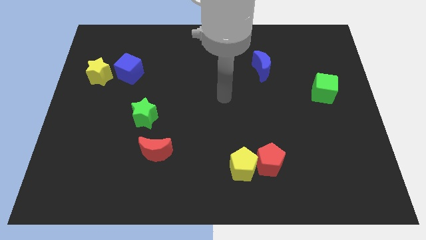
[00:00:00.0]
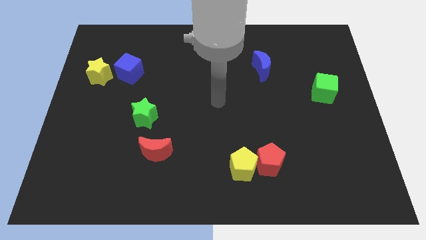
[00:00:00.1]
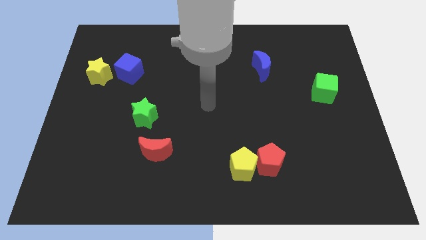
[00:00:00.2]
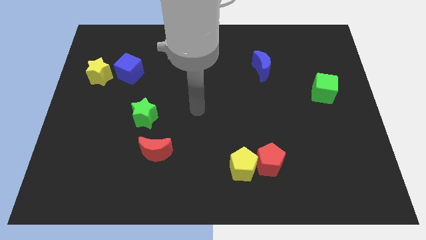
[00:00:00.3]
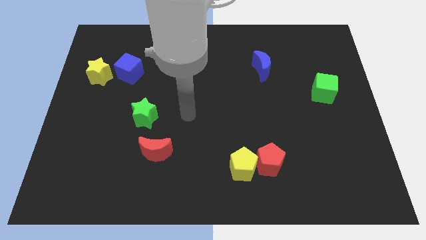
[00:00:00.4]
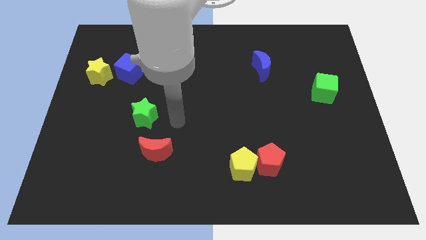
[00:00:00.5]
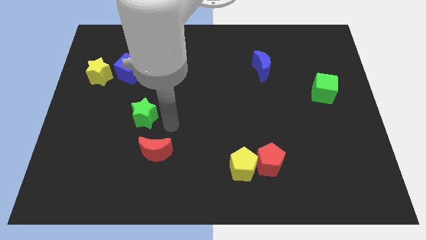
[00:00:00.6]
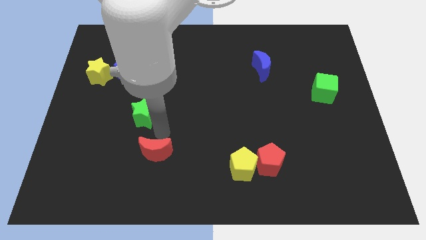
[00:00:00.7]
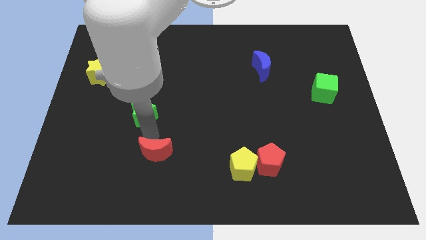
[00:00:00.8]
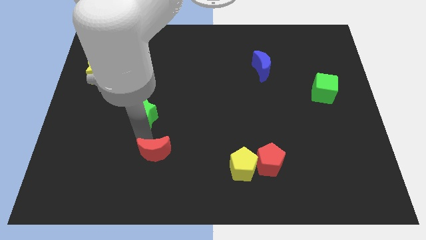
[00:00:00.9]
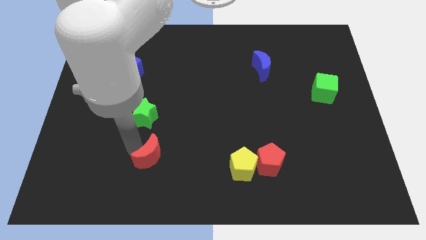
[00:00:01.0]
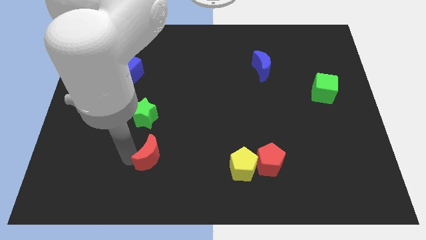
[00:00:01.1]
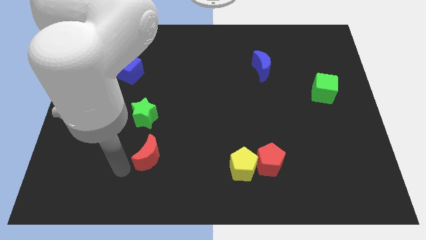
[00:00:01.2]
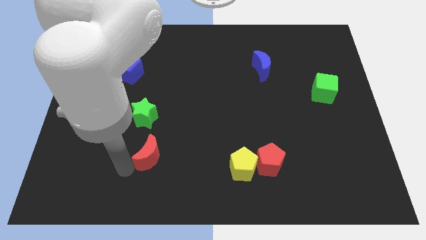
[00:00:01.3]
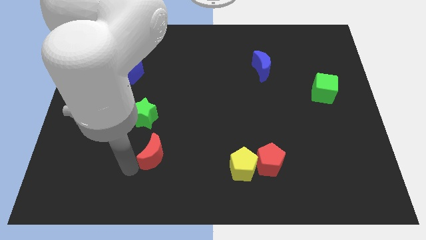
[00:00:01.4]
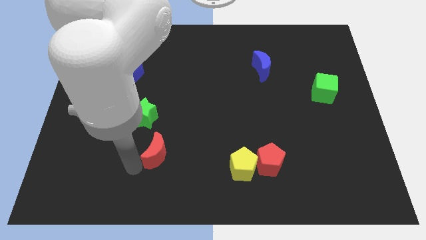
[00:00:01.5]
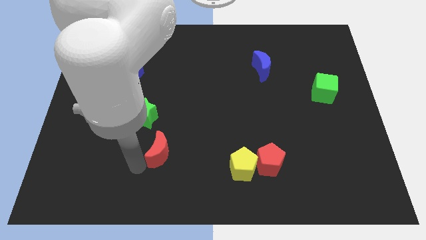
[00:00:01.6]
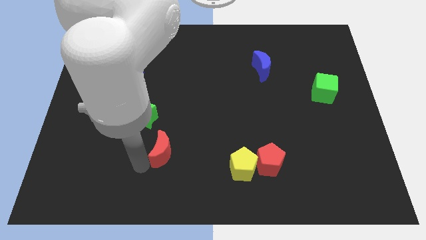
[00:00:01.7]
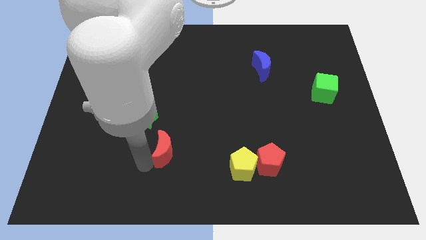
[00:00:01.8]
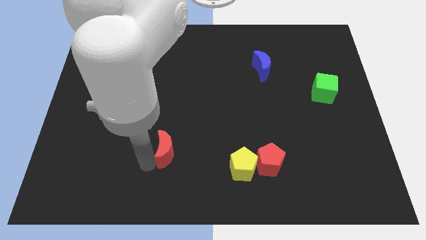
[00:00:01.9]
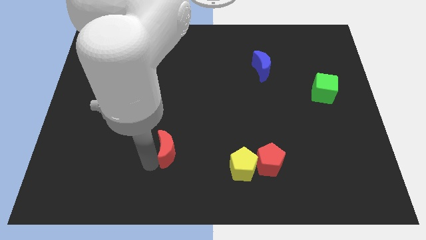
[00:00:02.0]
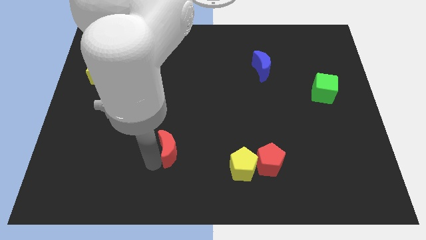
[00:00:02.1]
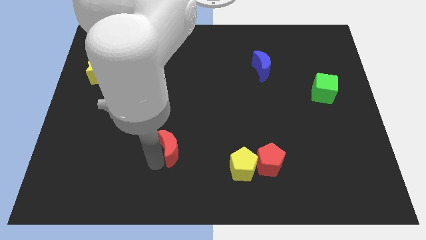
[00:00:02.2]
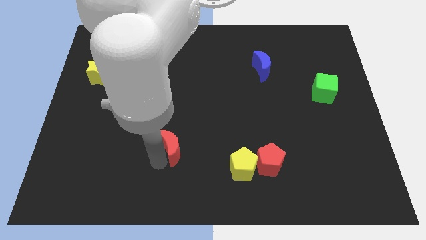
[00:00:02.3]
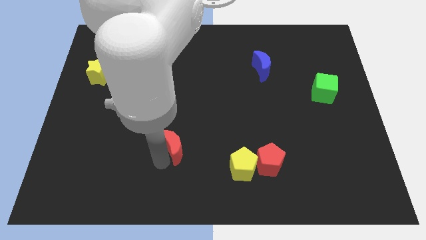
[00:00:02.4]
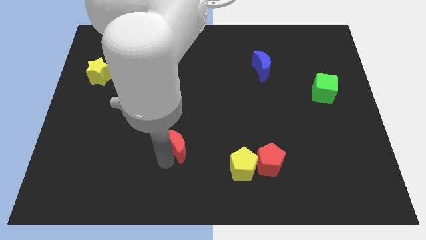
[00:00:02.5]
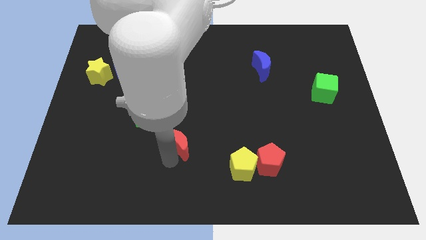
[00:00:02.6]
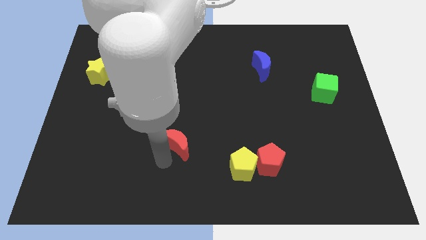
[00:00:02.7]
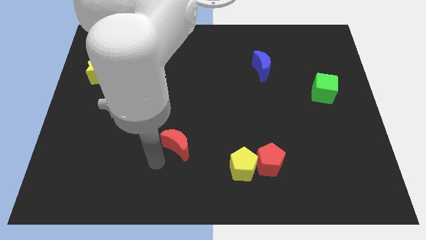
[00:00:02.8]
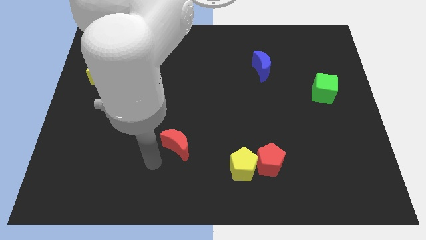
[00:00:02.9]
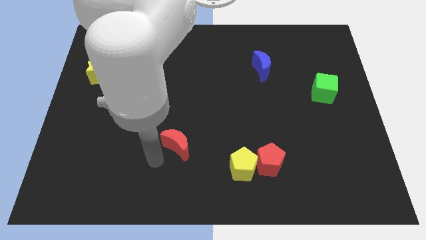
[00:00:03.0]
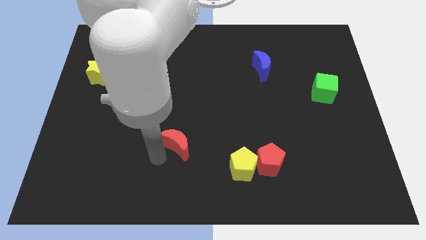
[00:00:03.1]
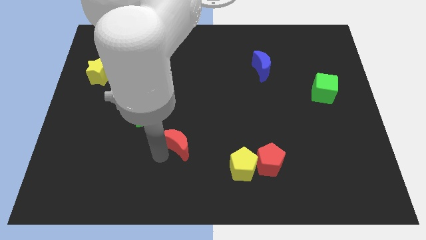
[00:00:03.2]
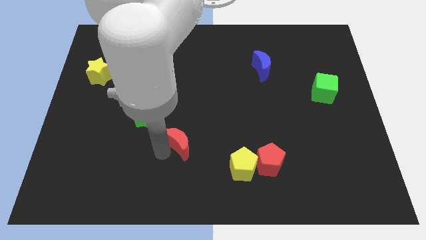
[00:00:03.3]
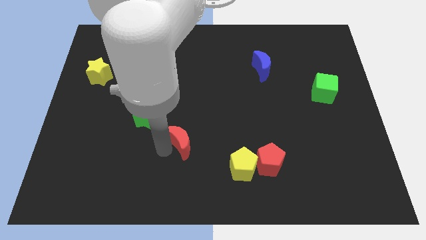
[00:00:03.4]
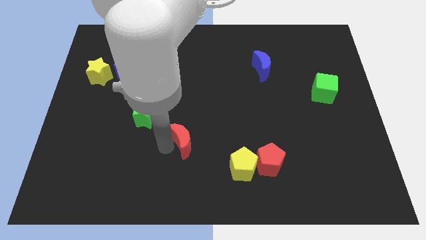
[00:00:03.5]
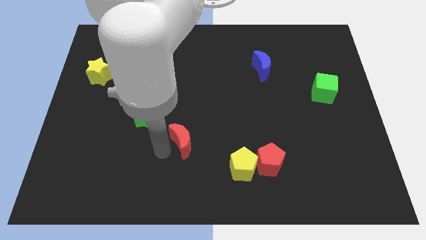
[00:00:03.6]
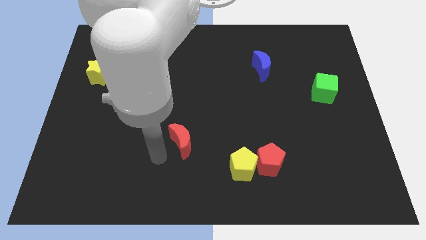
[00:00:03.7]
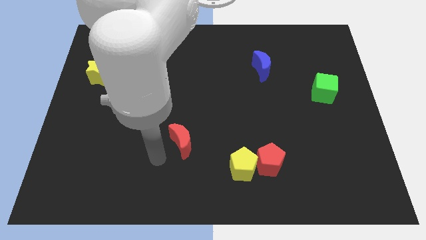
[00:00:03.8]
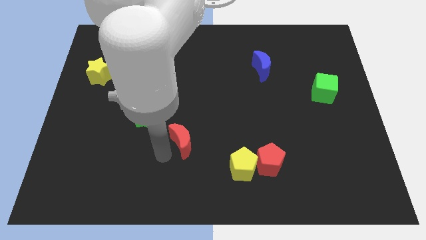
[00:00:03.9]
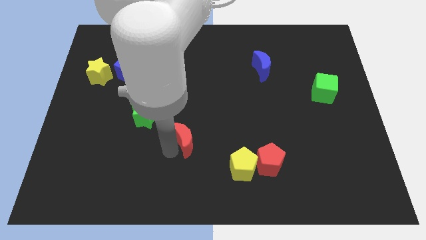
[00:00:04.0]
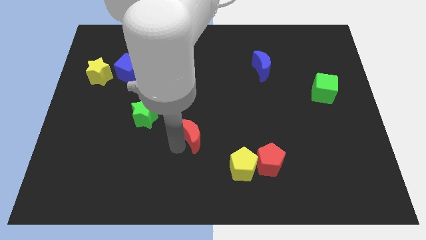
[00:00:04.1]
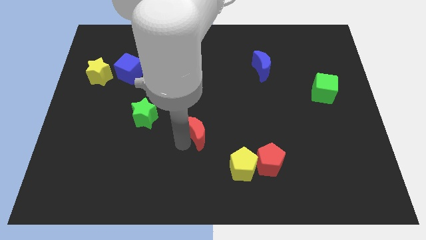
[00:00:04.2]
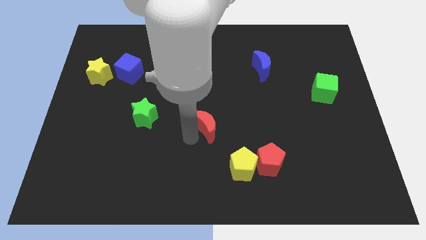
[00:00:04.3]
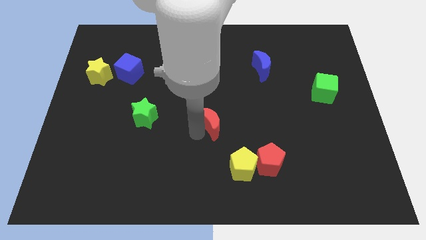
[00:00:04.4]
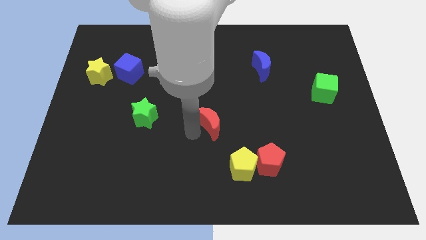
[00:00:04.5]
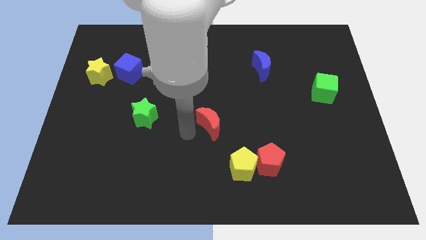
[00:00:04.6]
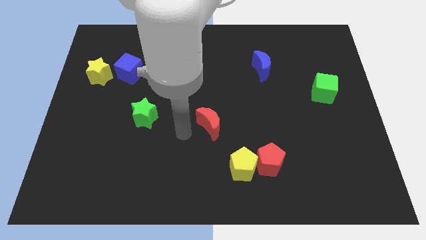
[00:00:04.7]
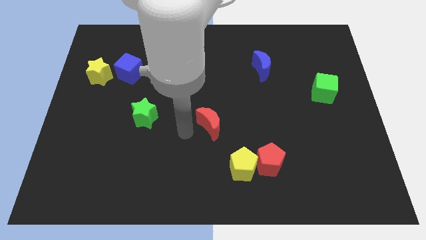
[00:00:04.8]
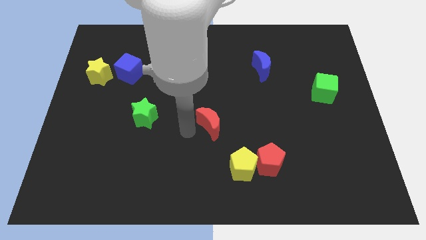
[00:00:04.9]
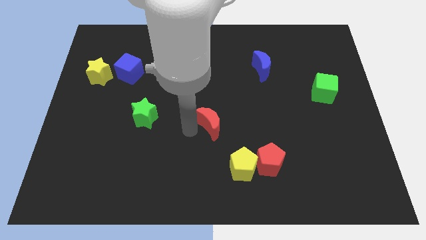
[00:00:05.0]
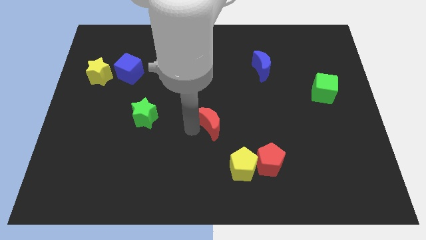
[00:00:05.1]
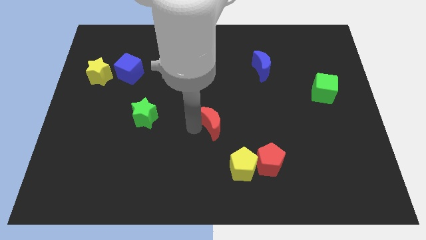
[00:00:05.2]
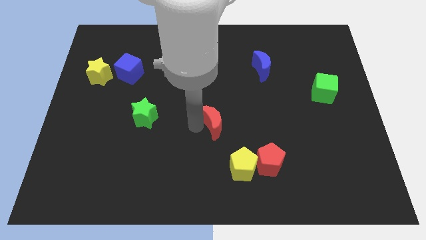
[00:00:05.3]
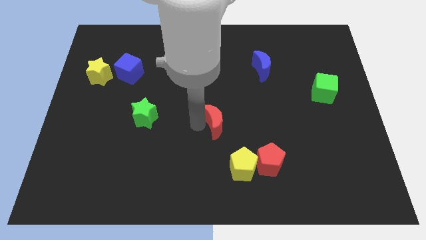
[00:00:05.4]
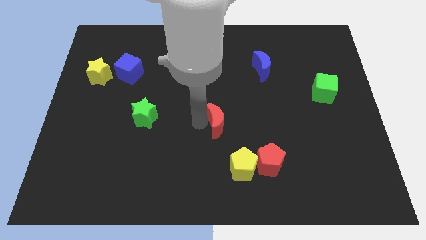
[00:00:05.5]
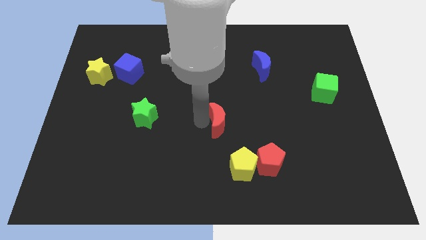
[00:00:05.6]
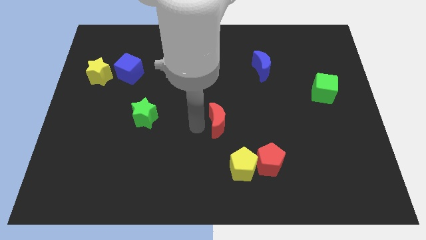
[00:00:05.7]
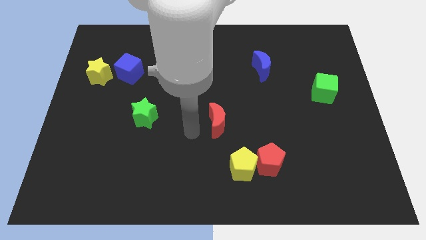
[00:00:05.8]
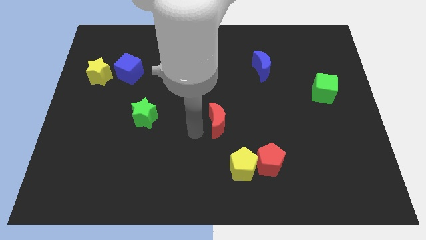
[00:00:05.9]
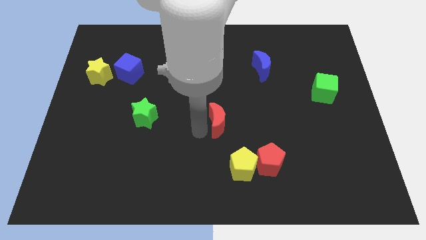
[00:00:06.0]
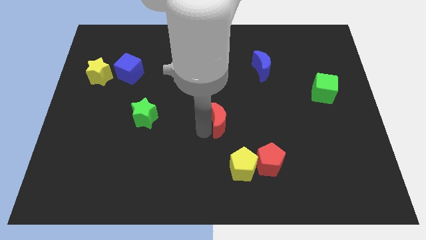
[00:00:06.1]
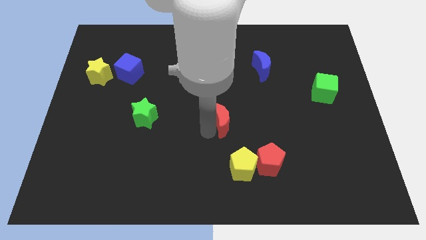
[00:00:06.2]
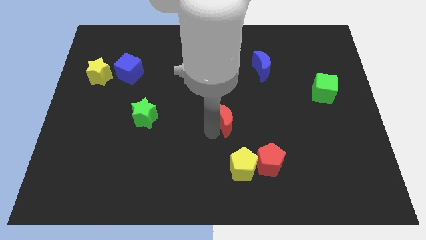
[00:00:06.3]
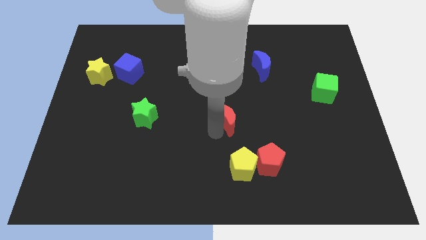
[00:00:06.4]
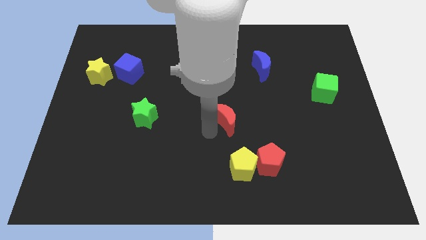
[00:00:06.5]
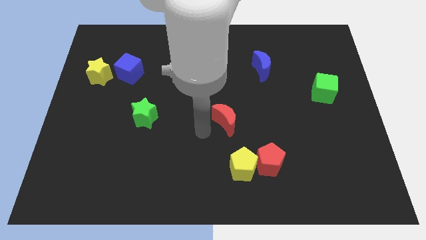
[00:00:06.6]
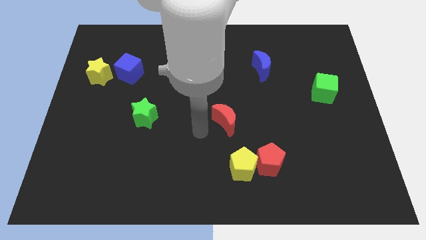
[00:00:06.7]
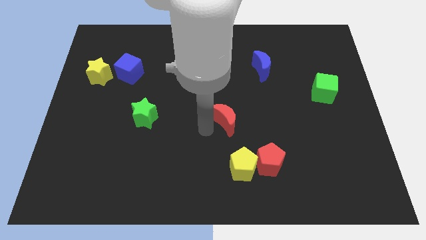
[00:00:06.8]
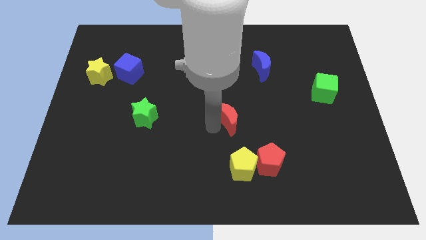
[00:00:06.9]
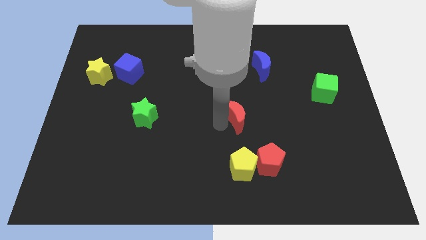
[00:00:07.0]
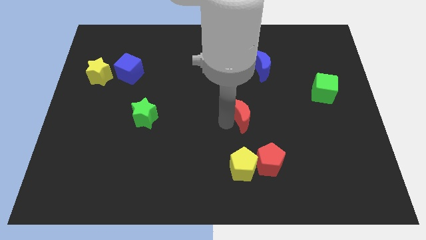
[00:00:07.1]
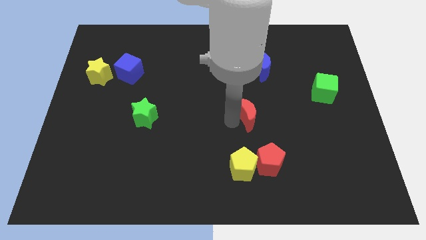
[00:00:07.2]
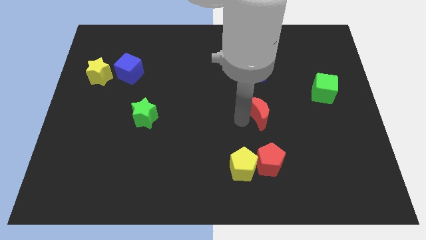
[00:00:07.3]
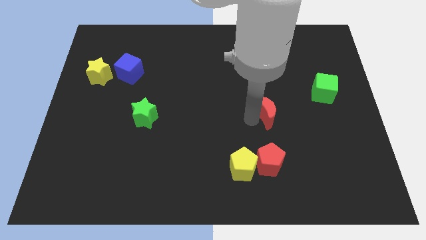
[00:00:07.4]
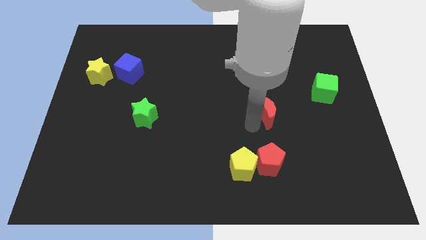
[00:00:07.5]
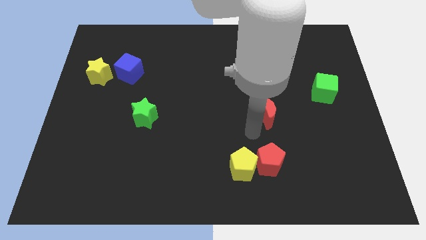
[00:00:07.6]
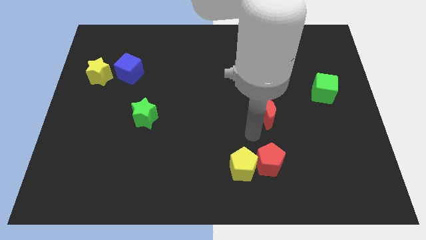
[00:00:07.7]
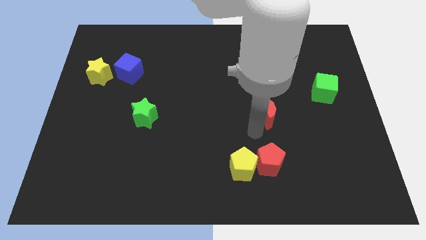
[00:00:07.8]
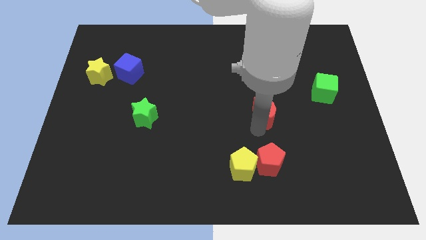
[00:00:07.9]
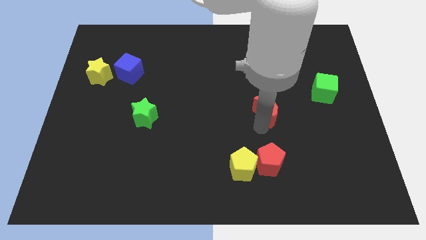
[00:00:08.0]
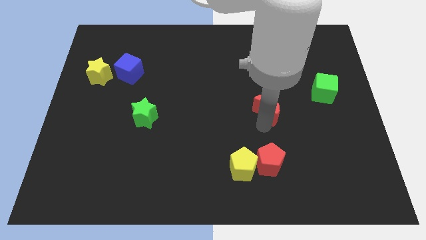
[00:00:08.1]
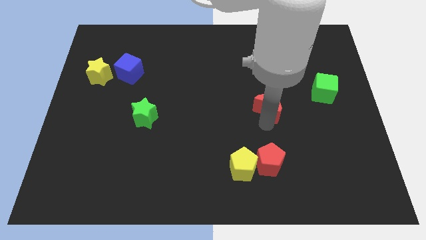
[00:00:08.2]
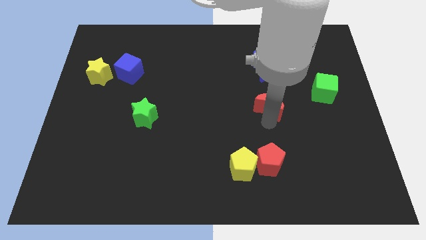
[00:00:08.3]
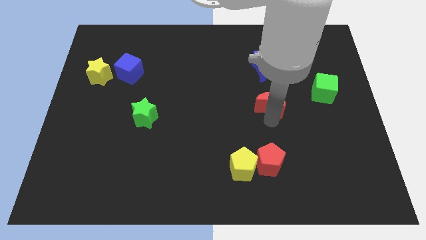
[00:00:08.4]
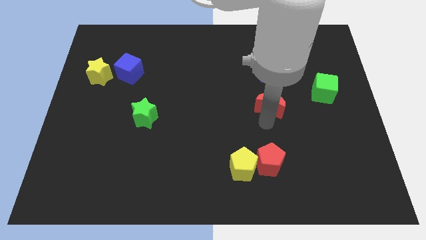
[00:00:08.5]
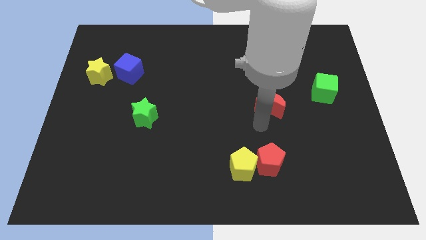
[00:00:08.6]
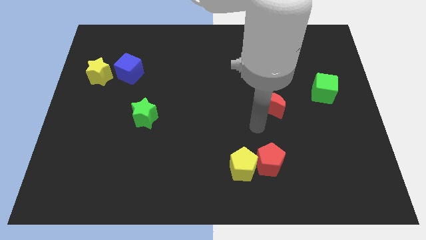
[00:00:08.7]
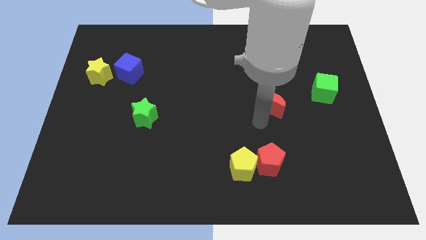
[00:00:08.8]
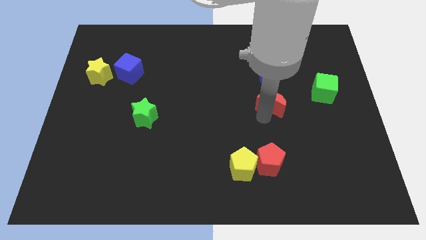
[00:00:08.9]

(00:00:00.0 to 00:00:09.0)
put the red moon left of the green cube
